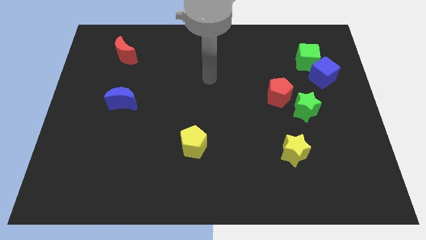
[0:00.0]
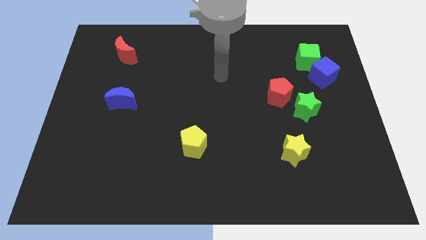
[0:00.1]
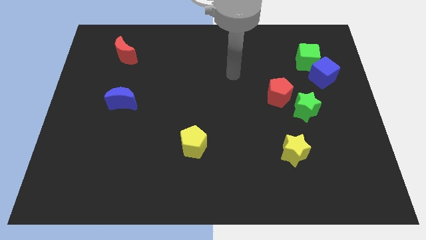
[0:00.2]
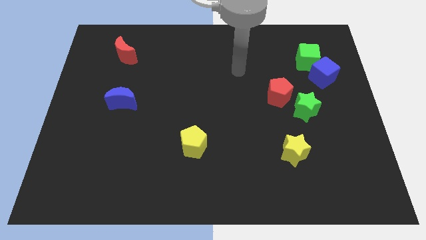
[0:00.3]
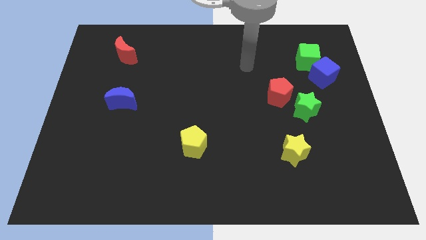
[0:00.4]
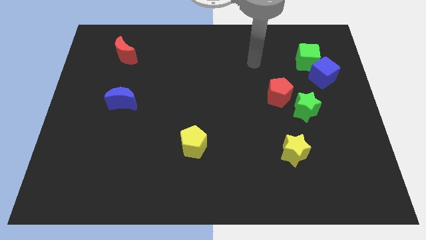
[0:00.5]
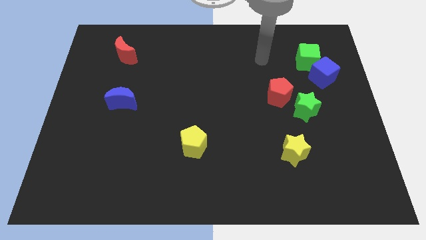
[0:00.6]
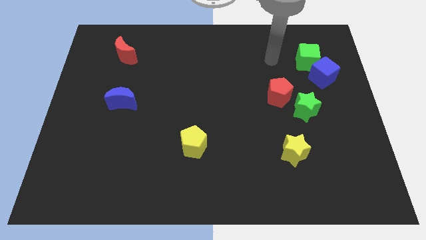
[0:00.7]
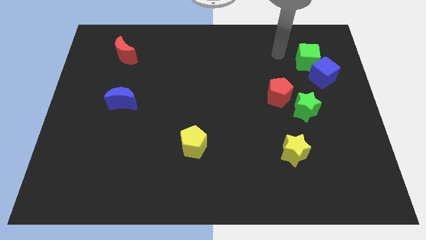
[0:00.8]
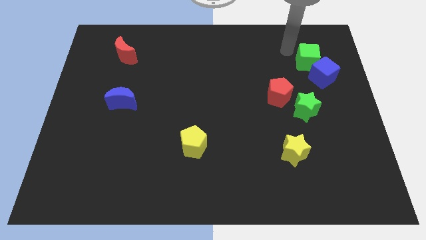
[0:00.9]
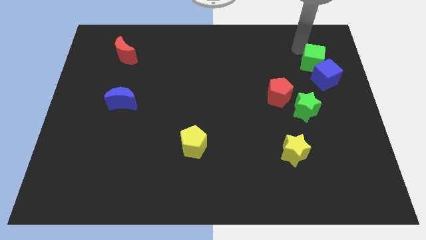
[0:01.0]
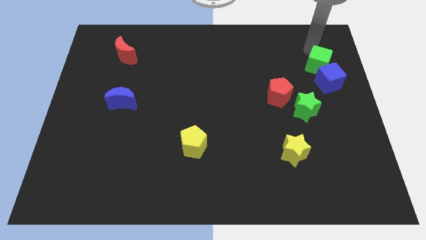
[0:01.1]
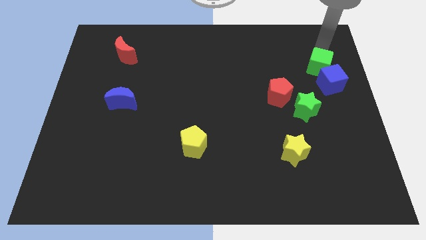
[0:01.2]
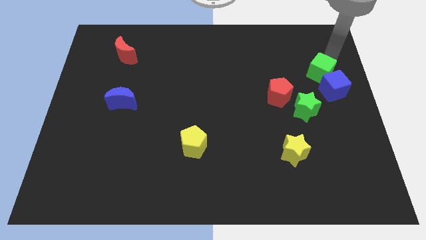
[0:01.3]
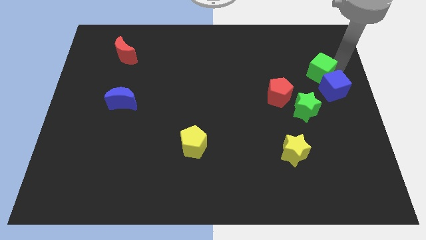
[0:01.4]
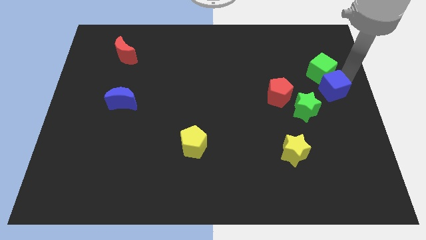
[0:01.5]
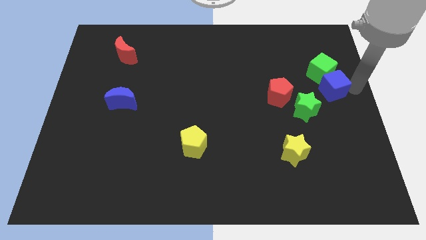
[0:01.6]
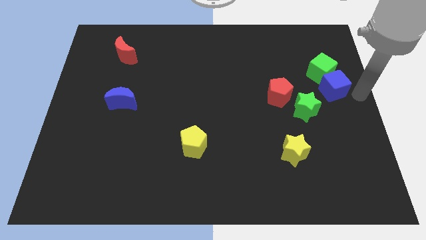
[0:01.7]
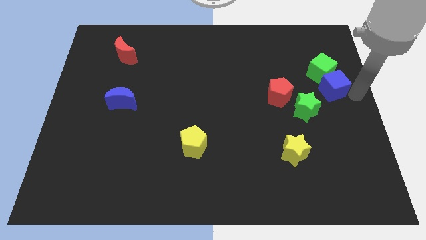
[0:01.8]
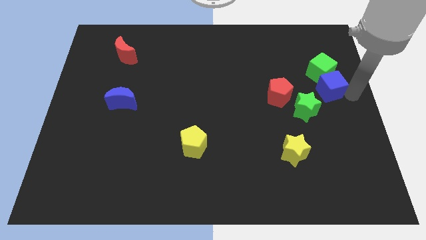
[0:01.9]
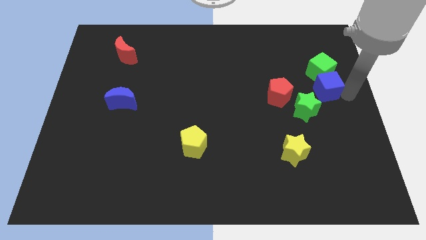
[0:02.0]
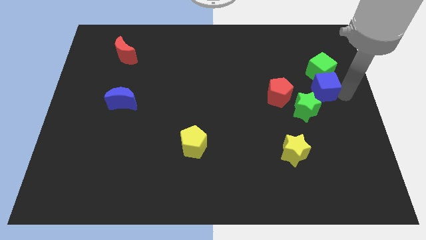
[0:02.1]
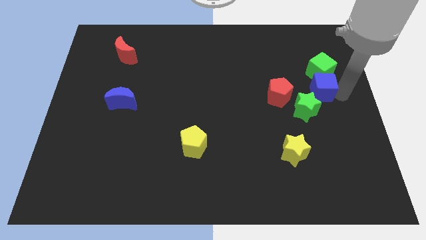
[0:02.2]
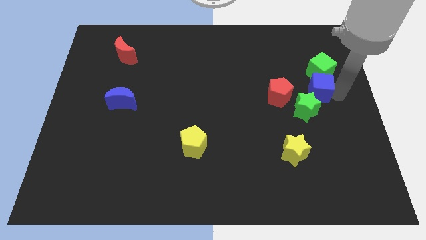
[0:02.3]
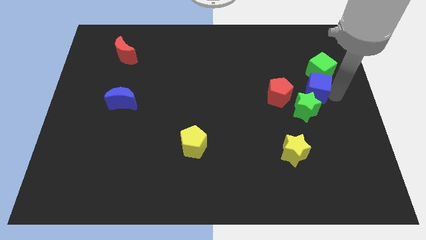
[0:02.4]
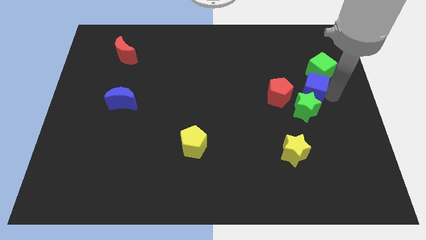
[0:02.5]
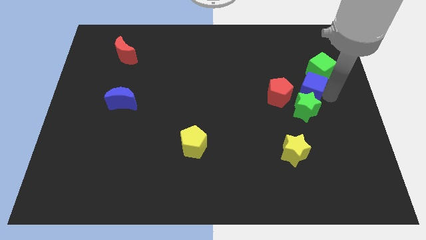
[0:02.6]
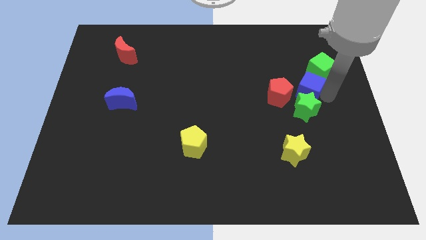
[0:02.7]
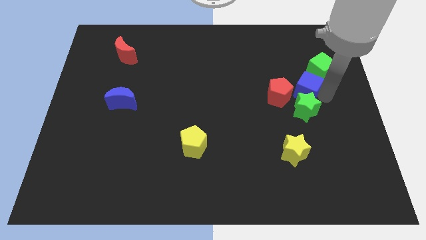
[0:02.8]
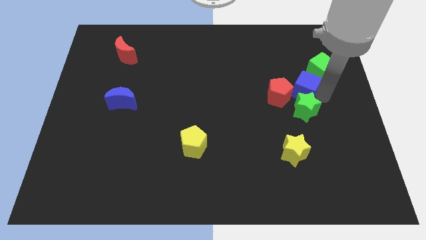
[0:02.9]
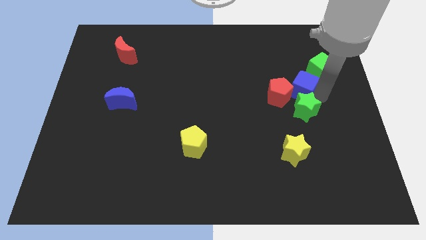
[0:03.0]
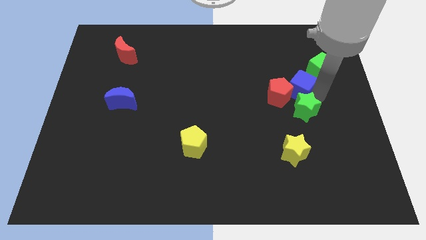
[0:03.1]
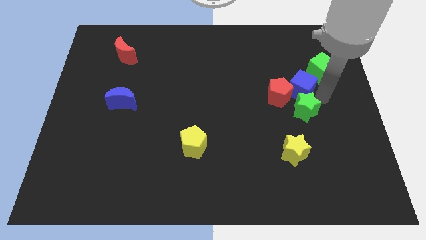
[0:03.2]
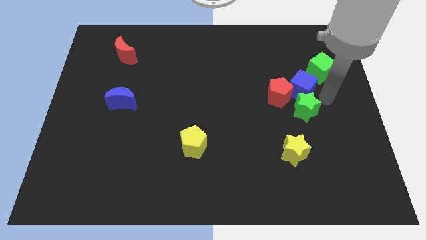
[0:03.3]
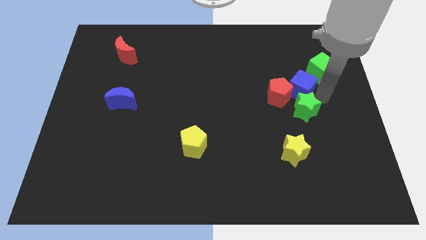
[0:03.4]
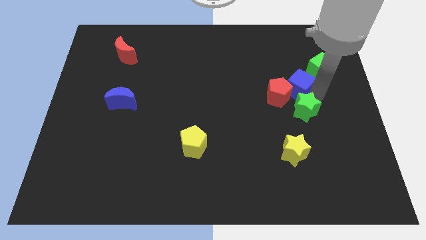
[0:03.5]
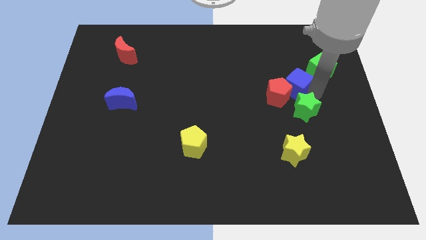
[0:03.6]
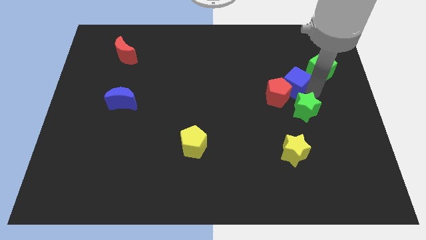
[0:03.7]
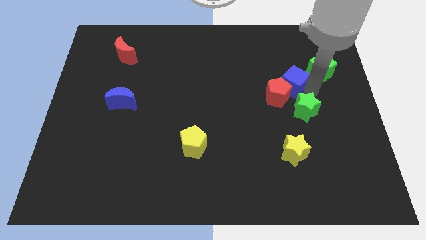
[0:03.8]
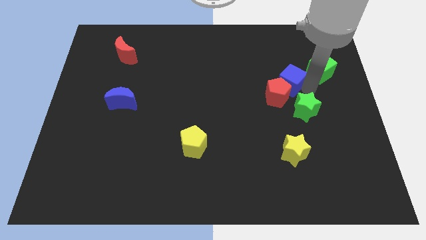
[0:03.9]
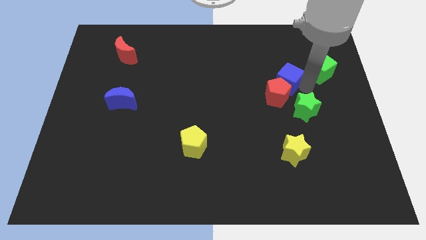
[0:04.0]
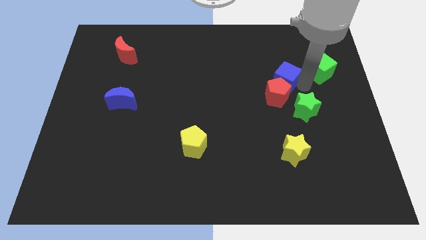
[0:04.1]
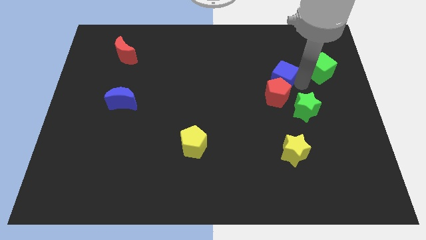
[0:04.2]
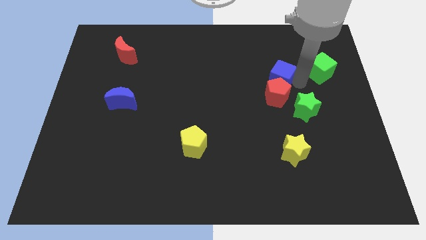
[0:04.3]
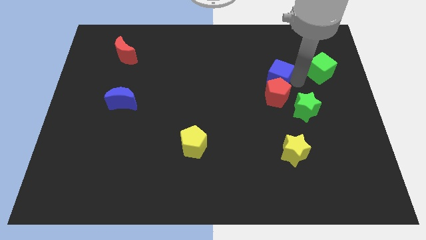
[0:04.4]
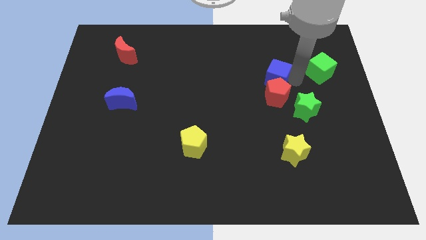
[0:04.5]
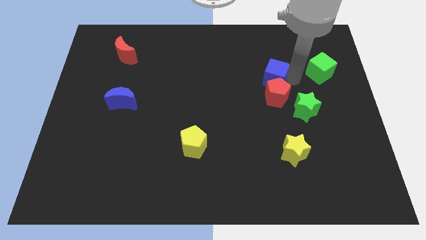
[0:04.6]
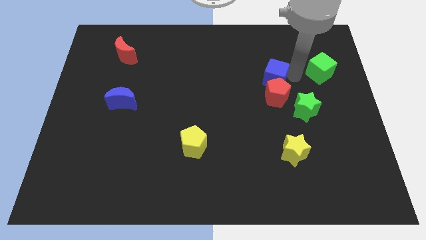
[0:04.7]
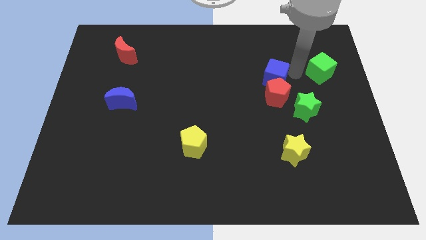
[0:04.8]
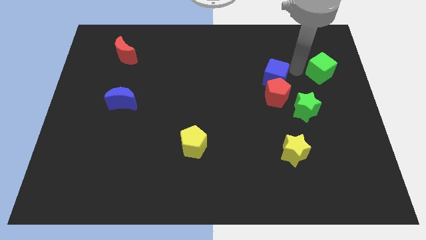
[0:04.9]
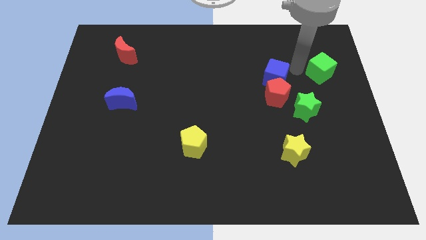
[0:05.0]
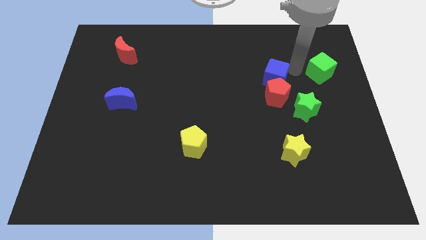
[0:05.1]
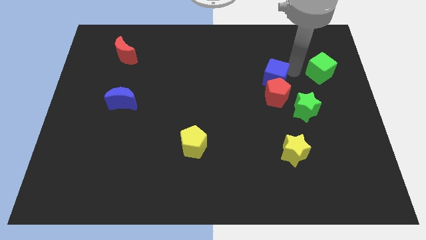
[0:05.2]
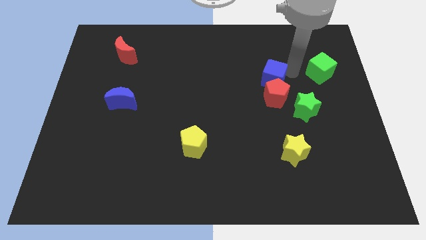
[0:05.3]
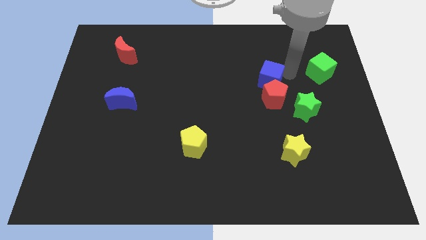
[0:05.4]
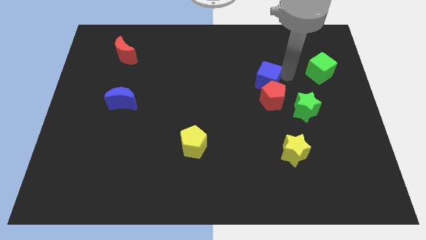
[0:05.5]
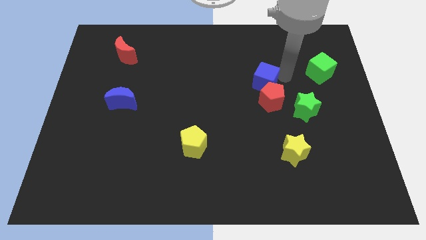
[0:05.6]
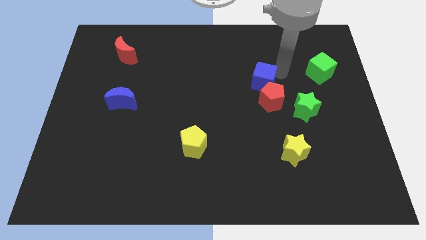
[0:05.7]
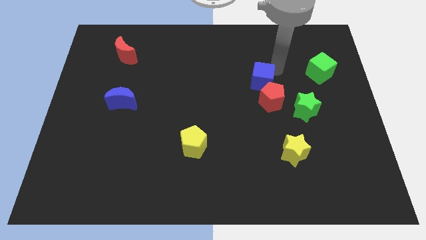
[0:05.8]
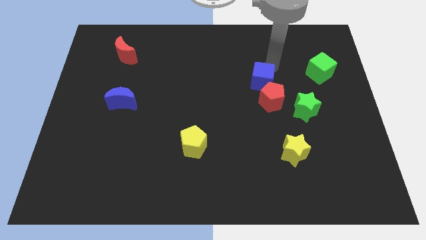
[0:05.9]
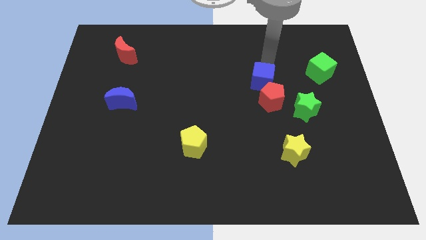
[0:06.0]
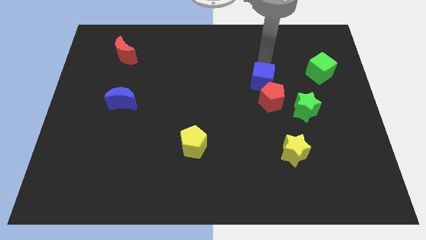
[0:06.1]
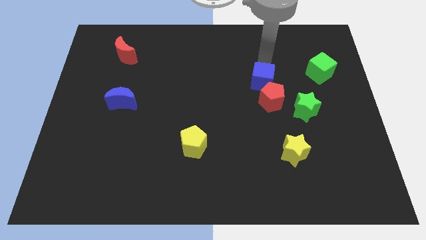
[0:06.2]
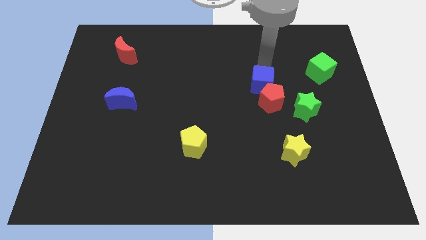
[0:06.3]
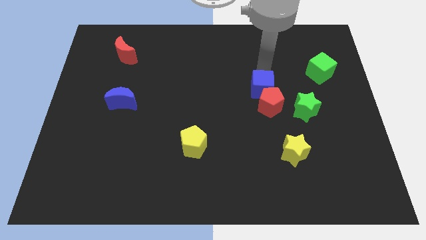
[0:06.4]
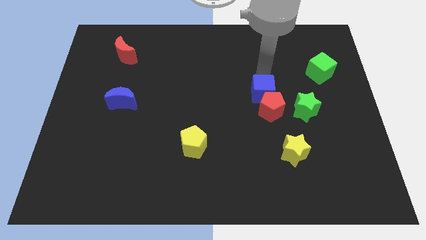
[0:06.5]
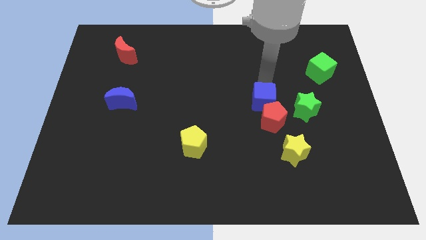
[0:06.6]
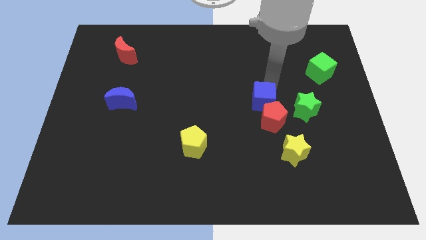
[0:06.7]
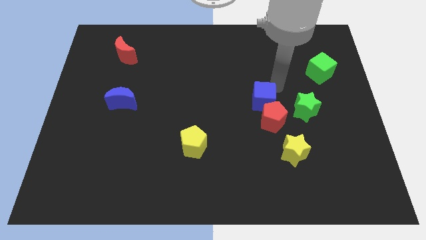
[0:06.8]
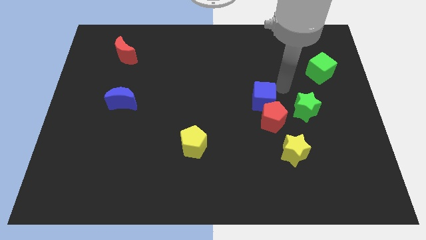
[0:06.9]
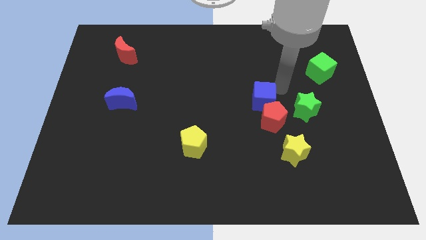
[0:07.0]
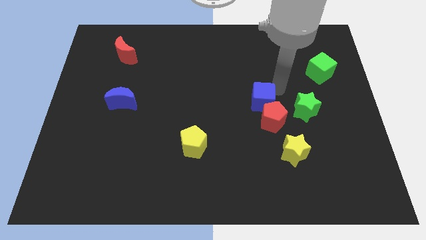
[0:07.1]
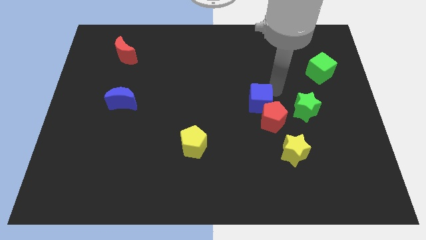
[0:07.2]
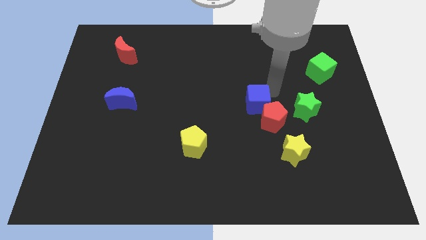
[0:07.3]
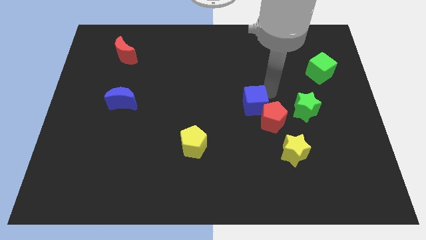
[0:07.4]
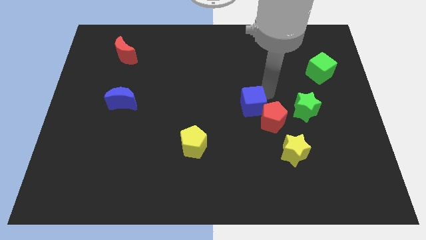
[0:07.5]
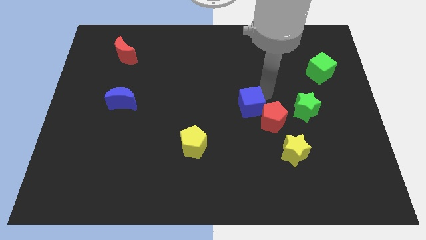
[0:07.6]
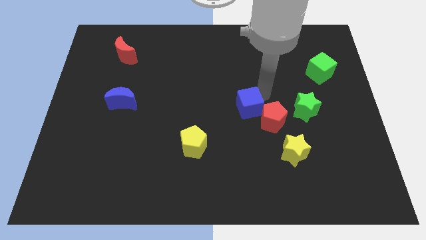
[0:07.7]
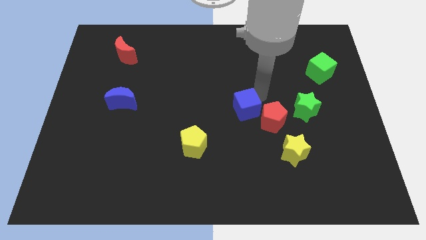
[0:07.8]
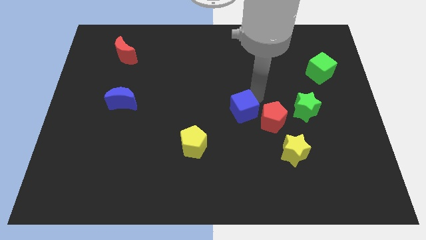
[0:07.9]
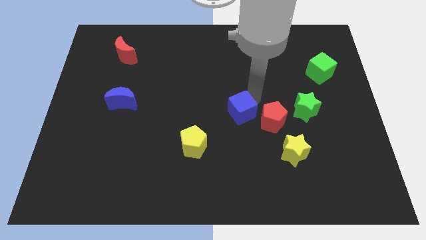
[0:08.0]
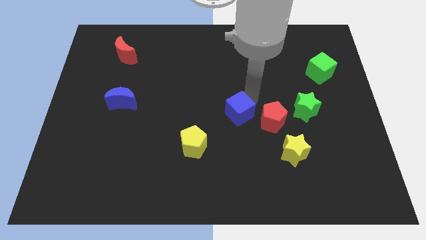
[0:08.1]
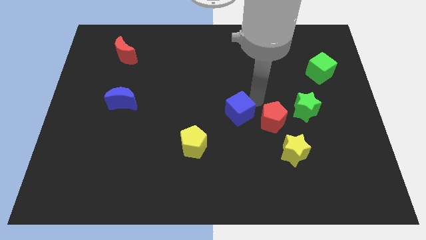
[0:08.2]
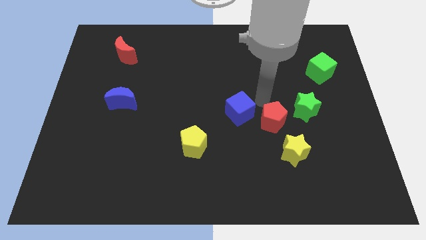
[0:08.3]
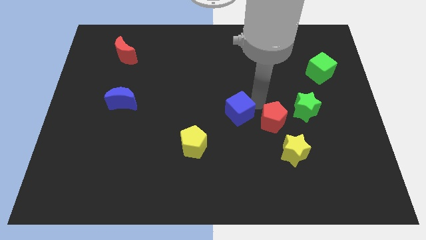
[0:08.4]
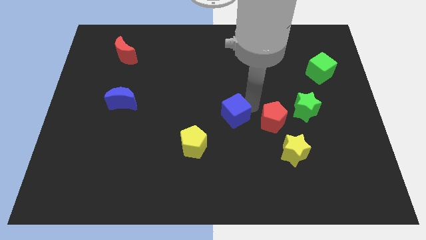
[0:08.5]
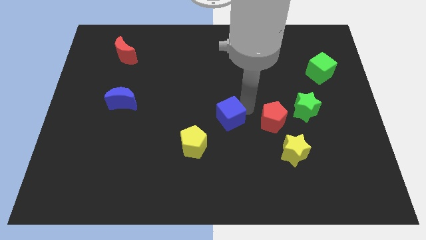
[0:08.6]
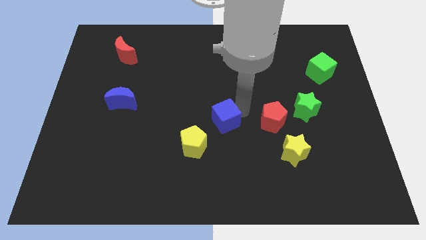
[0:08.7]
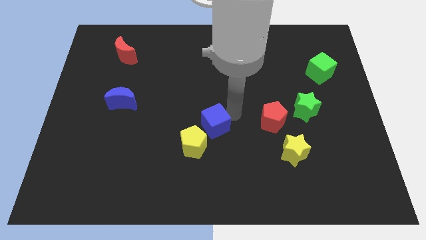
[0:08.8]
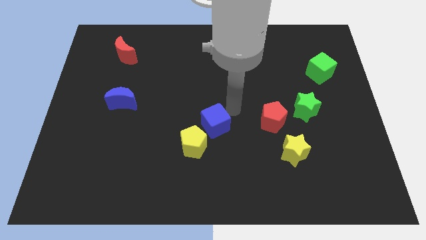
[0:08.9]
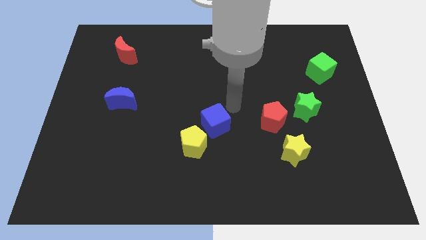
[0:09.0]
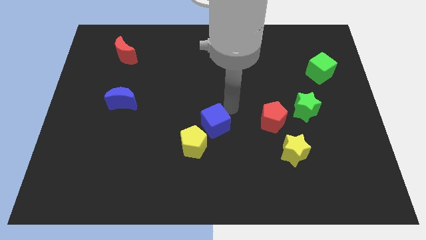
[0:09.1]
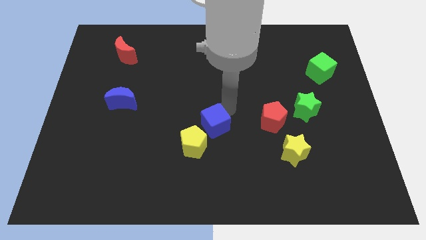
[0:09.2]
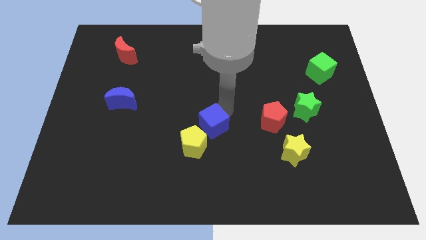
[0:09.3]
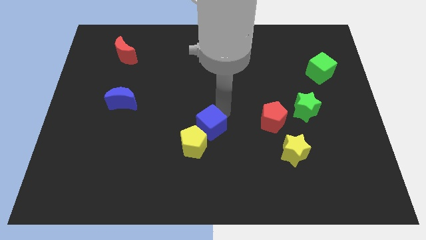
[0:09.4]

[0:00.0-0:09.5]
push the blue cube next to the yellow pentagon
